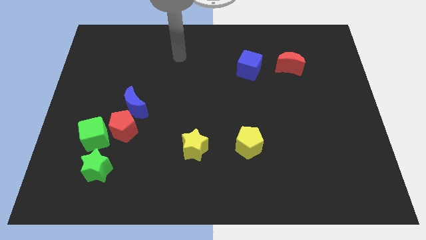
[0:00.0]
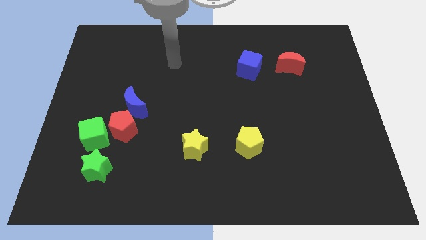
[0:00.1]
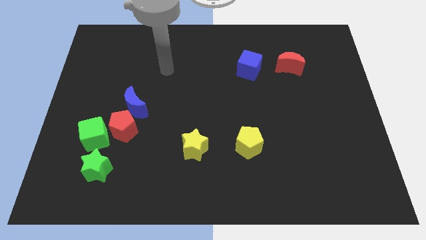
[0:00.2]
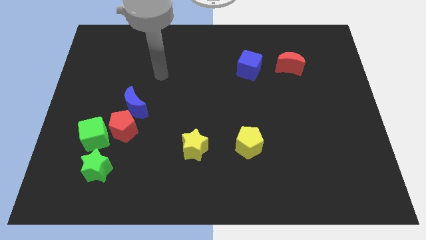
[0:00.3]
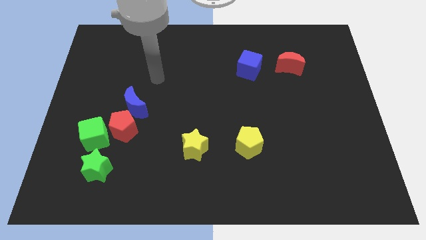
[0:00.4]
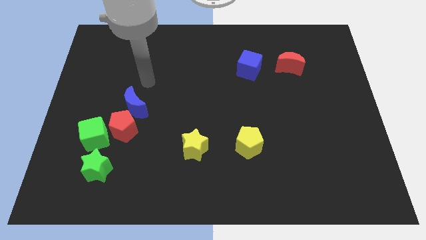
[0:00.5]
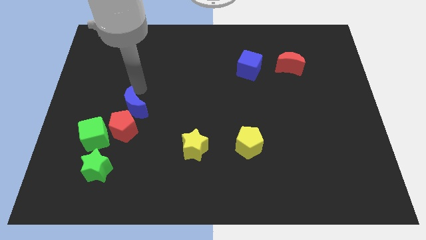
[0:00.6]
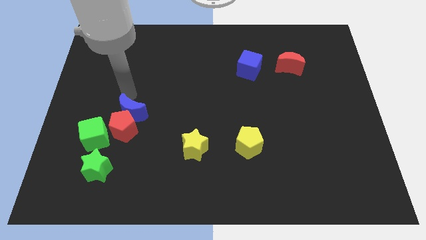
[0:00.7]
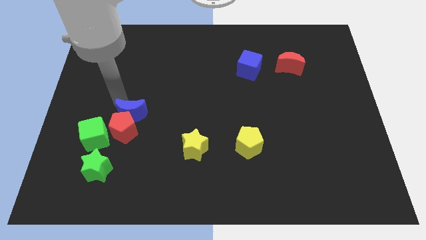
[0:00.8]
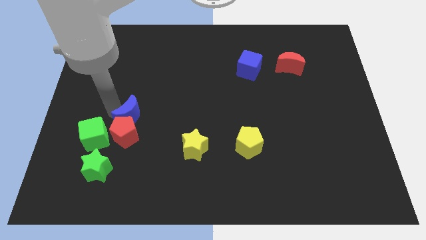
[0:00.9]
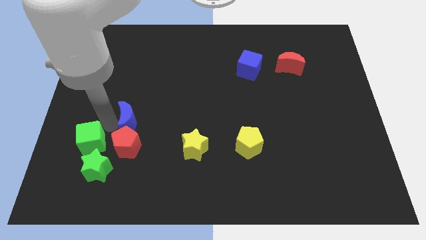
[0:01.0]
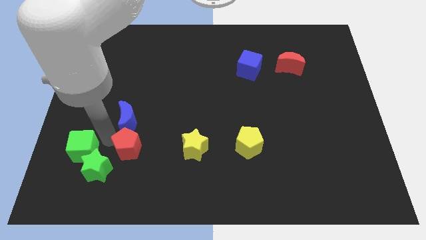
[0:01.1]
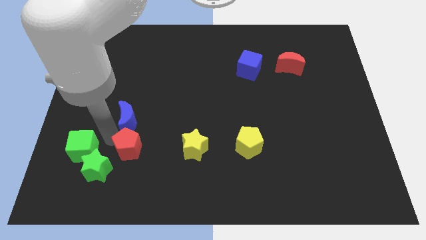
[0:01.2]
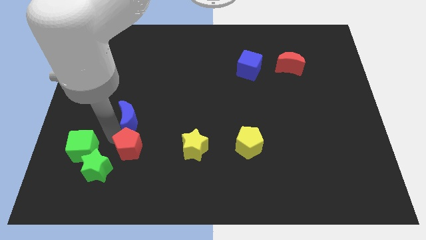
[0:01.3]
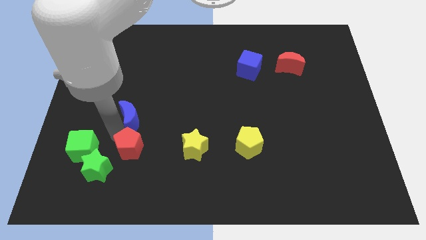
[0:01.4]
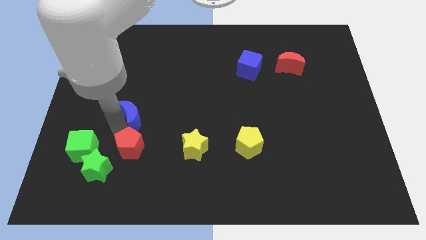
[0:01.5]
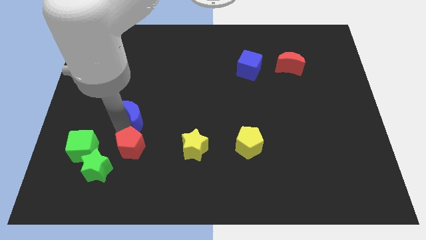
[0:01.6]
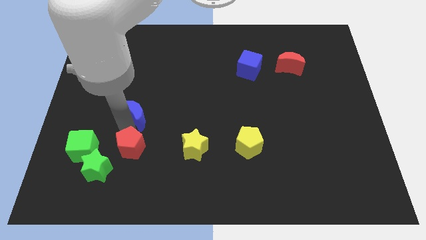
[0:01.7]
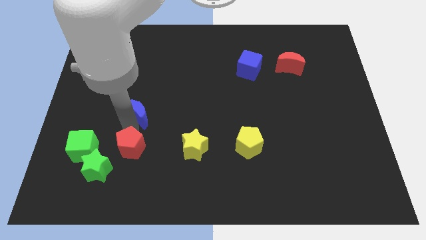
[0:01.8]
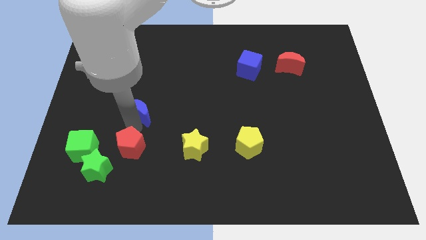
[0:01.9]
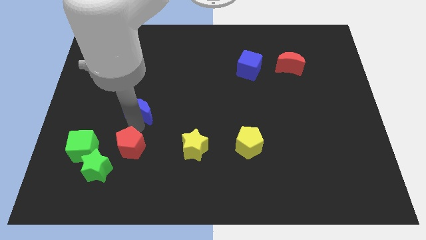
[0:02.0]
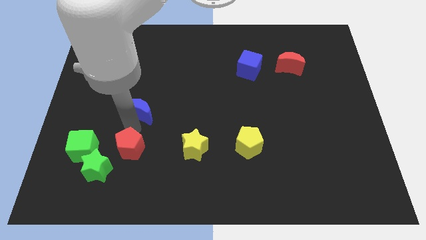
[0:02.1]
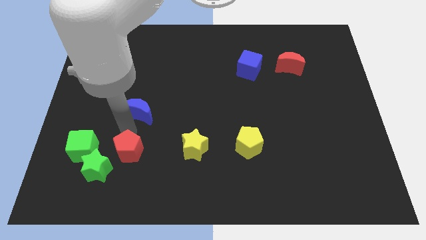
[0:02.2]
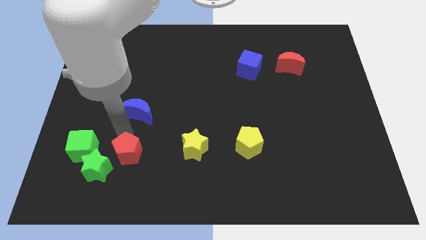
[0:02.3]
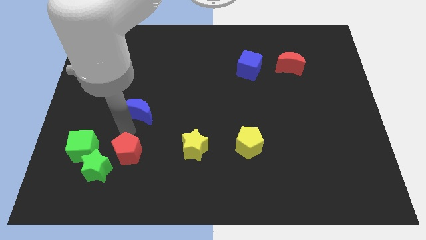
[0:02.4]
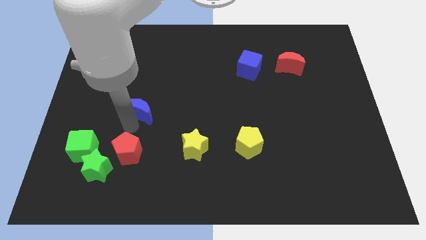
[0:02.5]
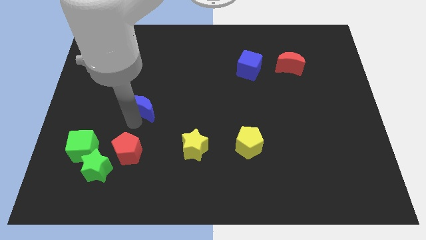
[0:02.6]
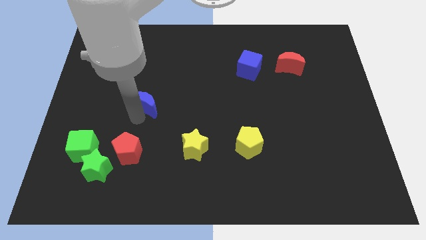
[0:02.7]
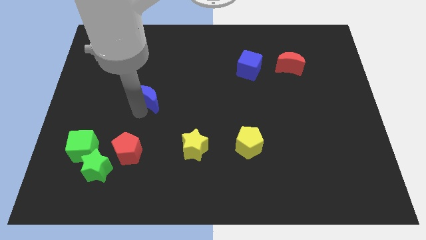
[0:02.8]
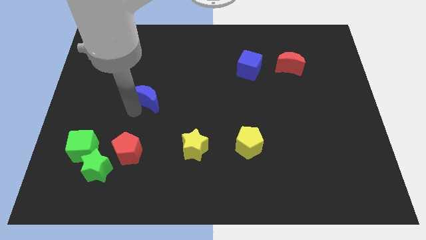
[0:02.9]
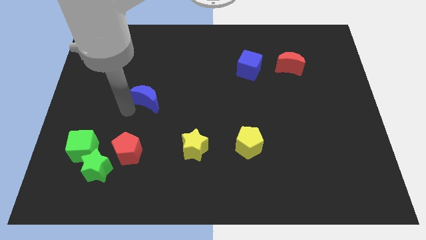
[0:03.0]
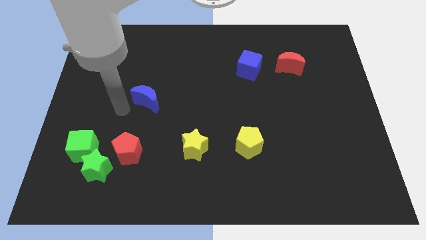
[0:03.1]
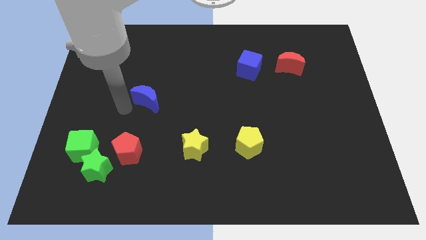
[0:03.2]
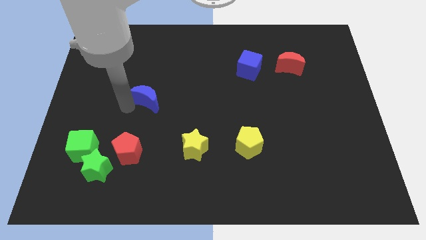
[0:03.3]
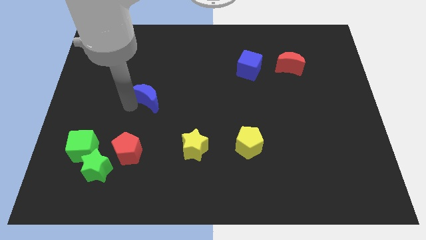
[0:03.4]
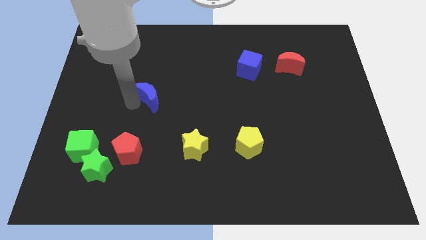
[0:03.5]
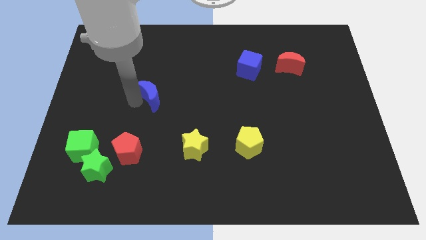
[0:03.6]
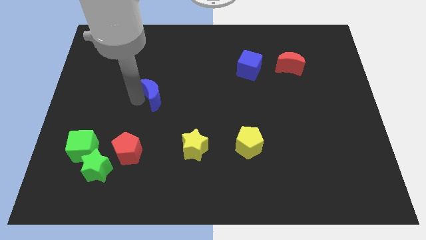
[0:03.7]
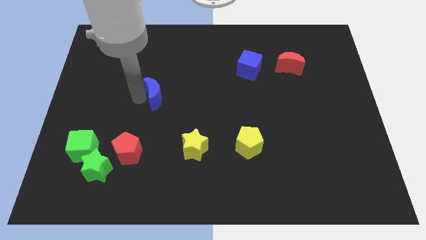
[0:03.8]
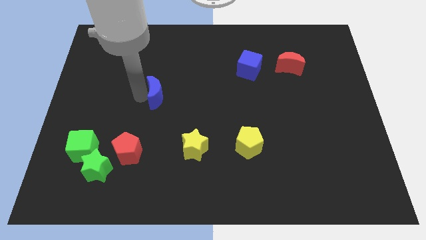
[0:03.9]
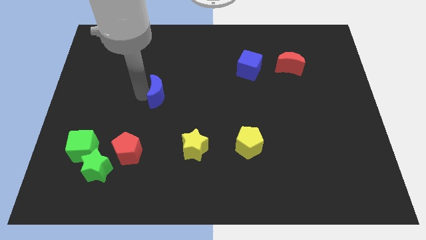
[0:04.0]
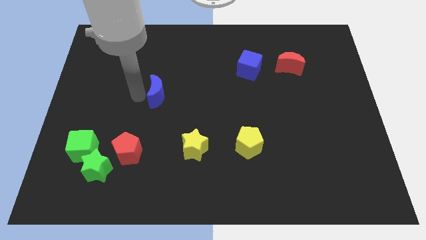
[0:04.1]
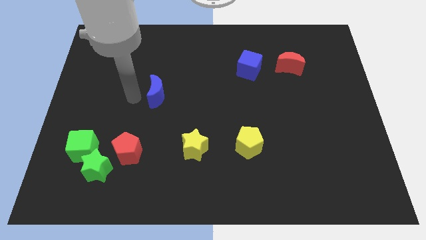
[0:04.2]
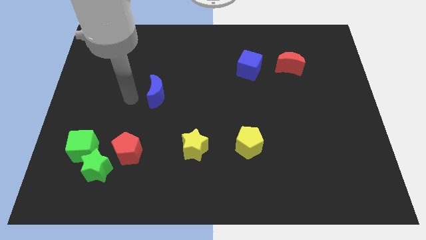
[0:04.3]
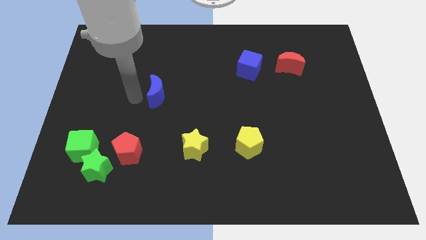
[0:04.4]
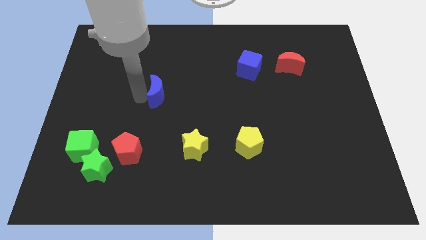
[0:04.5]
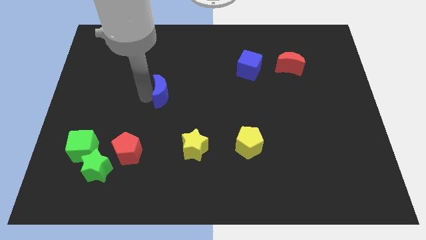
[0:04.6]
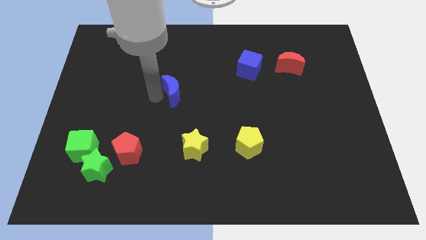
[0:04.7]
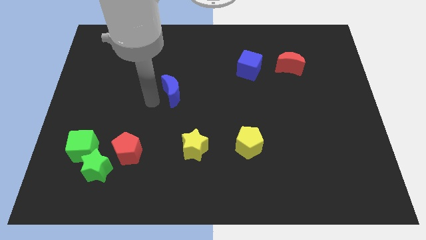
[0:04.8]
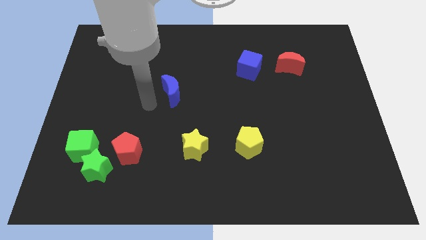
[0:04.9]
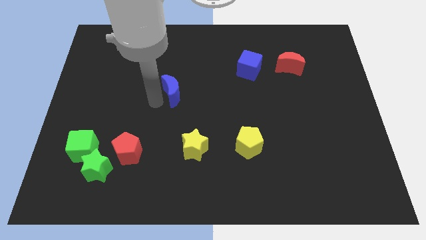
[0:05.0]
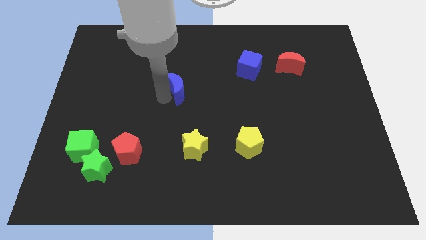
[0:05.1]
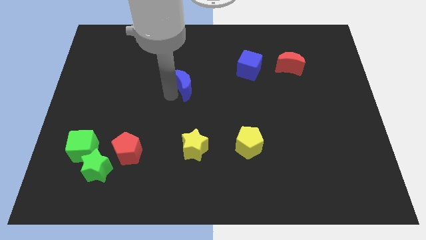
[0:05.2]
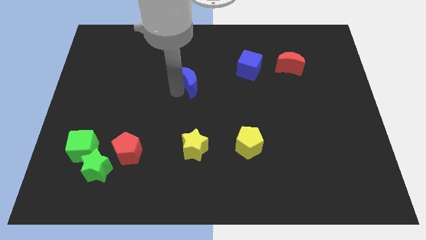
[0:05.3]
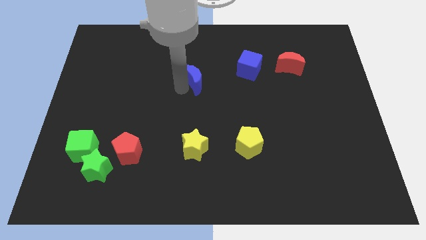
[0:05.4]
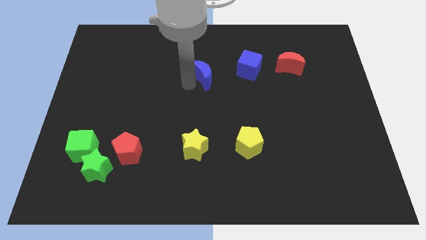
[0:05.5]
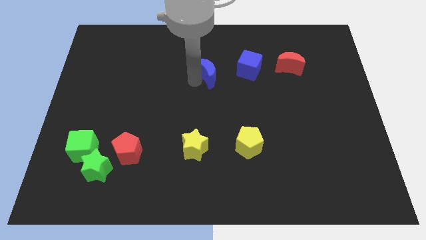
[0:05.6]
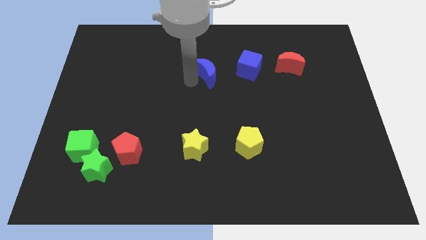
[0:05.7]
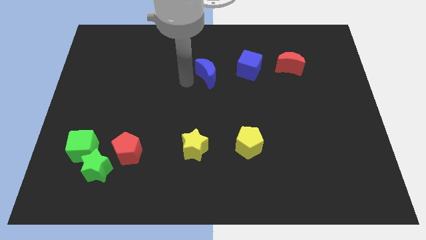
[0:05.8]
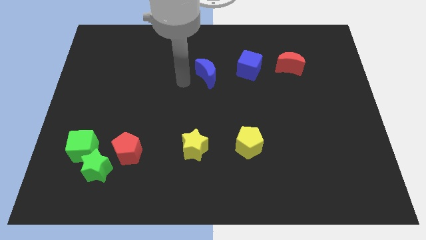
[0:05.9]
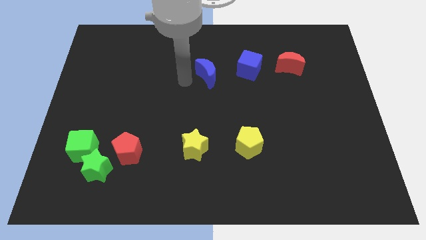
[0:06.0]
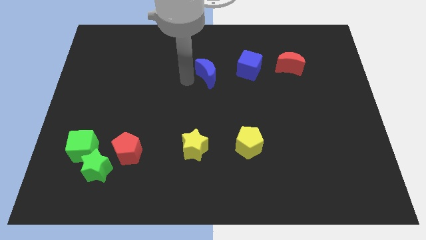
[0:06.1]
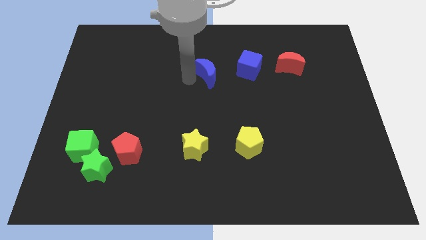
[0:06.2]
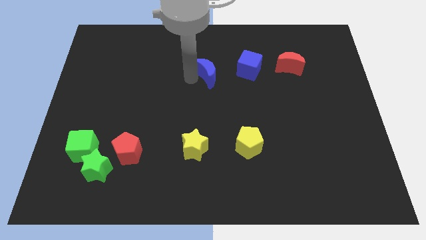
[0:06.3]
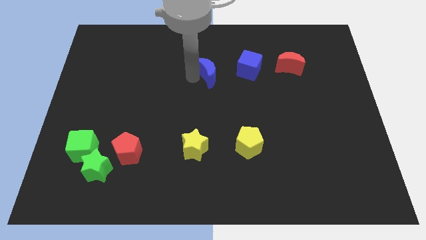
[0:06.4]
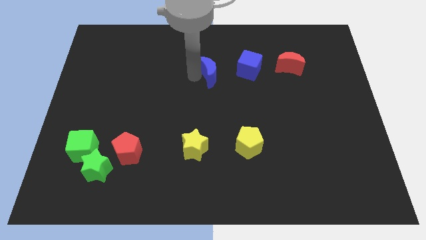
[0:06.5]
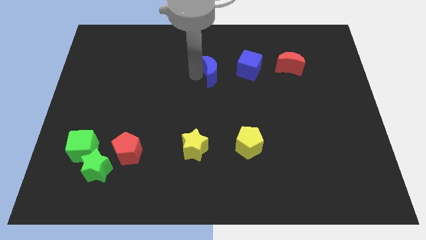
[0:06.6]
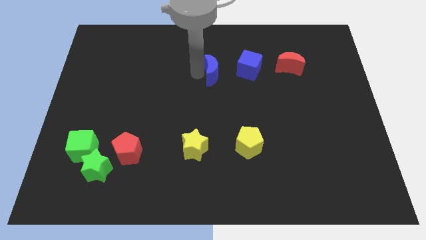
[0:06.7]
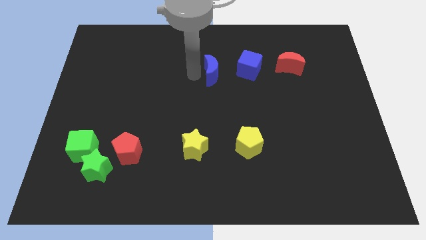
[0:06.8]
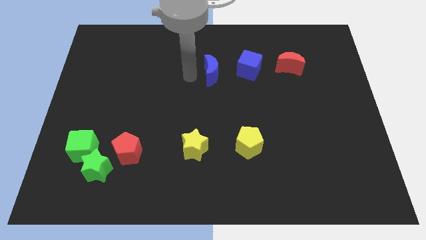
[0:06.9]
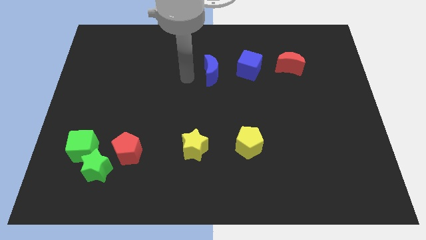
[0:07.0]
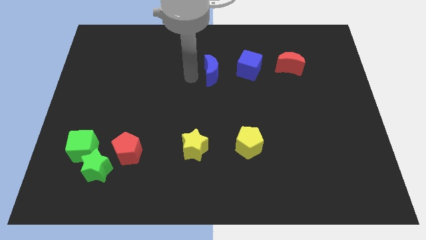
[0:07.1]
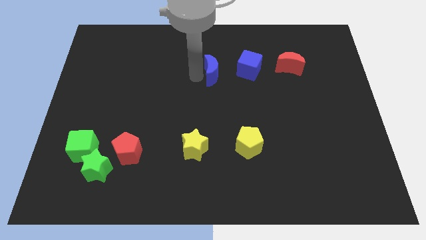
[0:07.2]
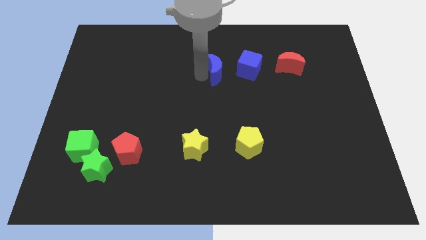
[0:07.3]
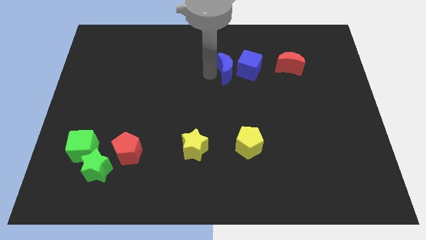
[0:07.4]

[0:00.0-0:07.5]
slide the blue moon next to the blue cube
